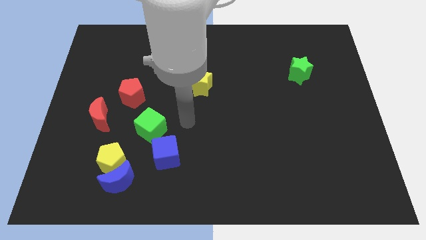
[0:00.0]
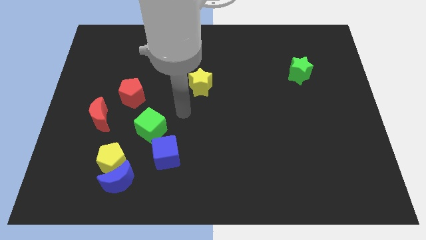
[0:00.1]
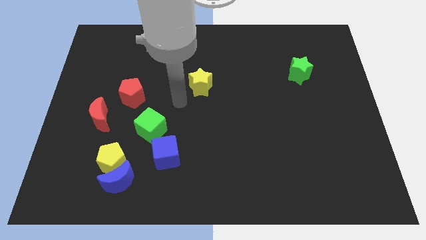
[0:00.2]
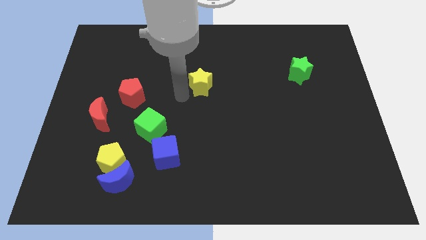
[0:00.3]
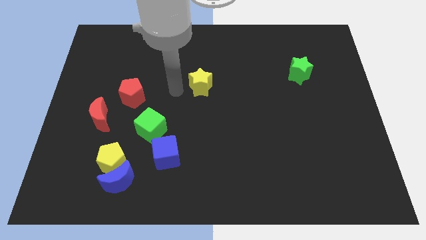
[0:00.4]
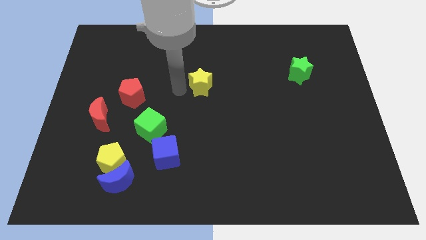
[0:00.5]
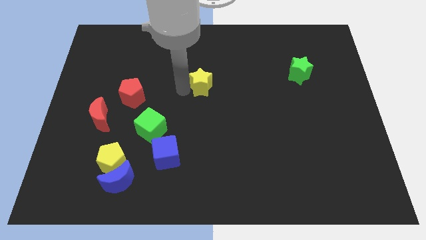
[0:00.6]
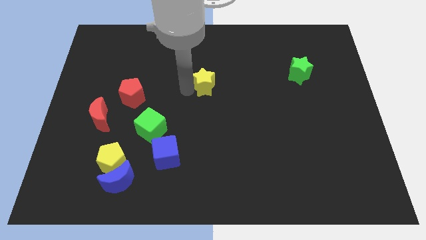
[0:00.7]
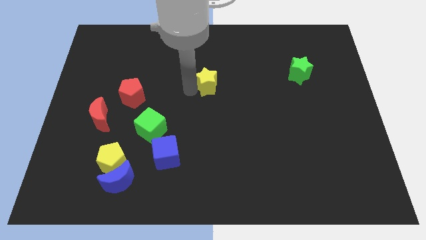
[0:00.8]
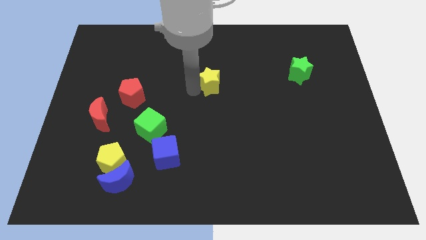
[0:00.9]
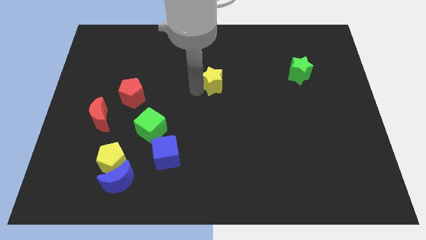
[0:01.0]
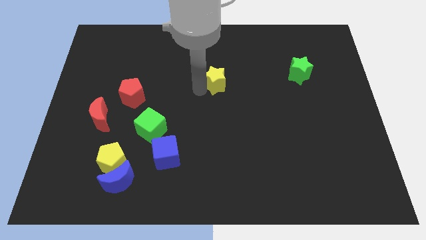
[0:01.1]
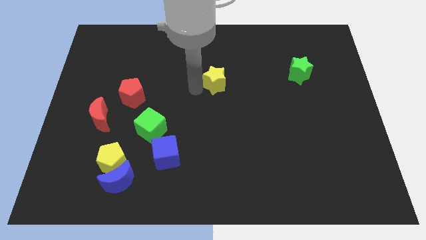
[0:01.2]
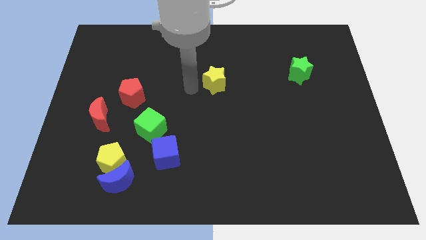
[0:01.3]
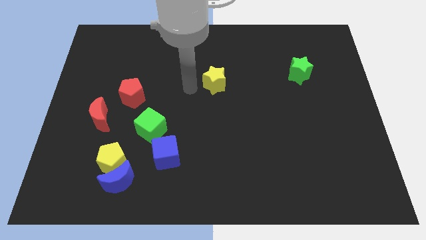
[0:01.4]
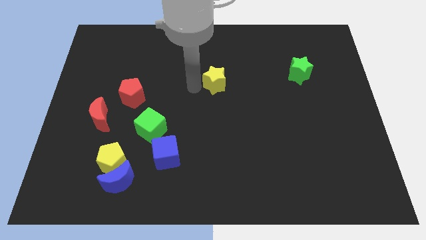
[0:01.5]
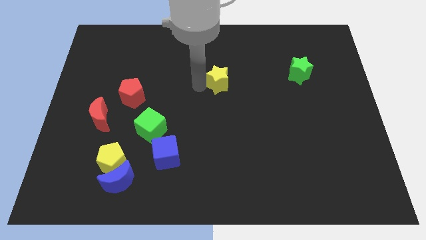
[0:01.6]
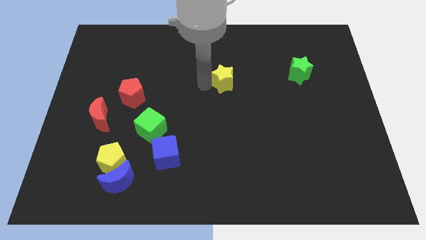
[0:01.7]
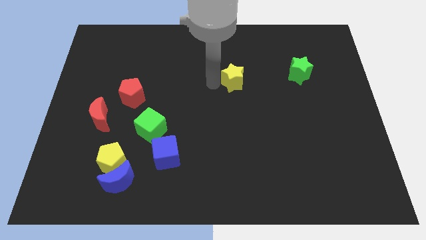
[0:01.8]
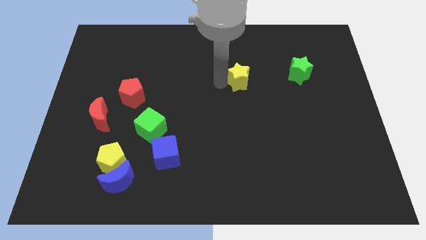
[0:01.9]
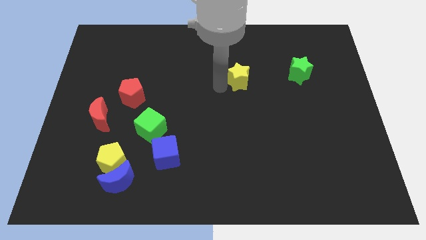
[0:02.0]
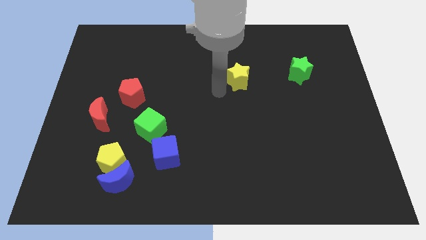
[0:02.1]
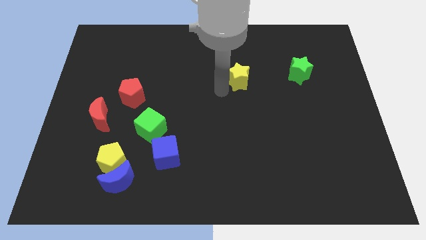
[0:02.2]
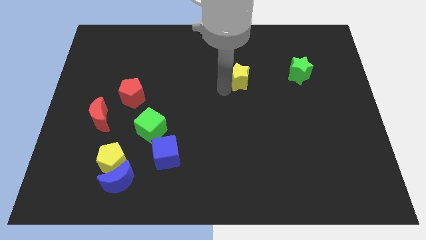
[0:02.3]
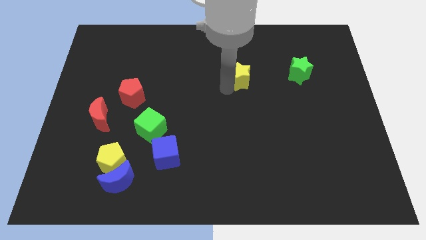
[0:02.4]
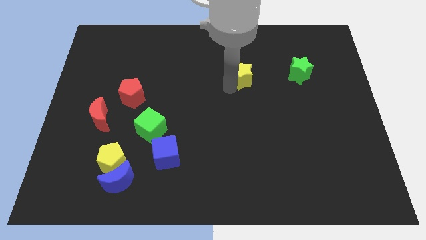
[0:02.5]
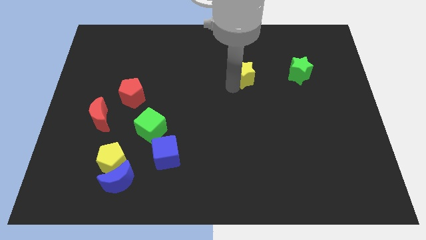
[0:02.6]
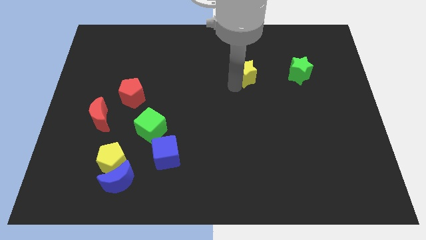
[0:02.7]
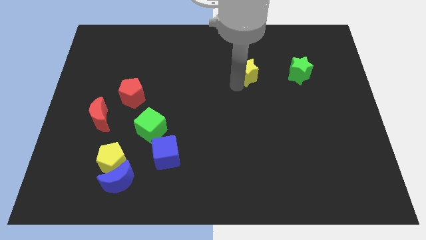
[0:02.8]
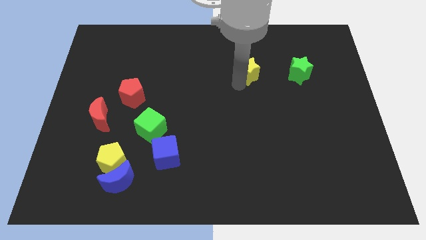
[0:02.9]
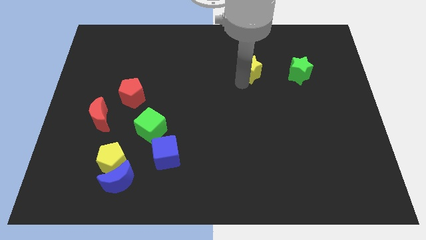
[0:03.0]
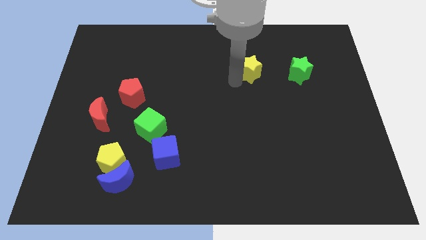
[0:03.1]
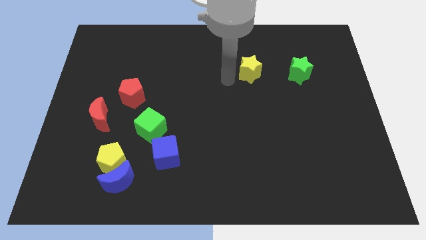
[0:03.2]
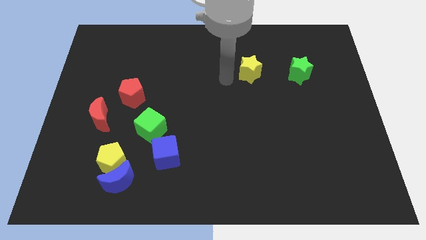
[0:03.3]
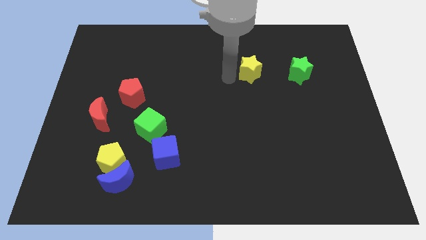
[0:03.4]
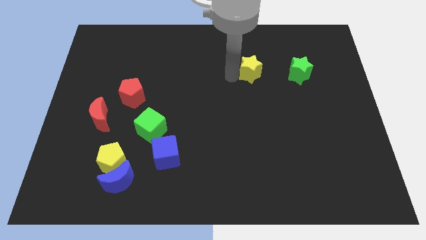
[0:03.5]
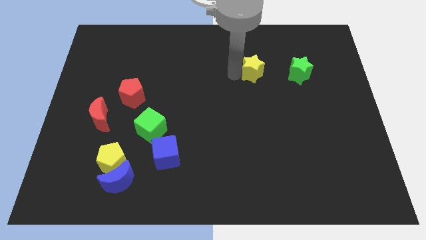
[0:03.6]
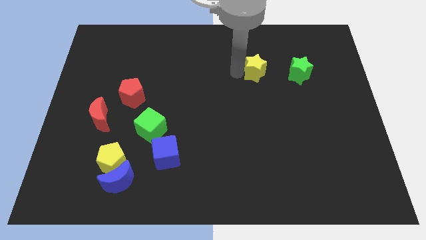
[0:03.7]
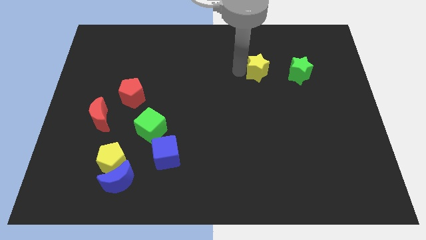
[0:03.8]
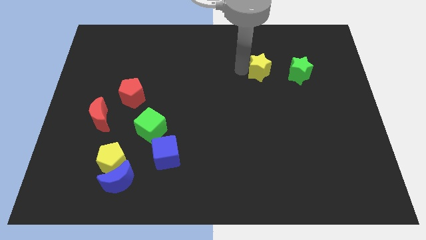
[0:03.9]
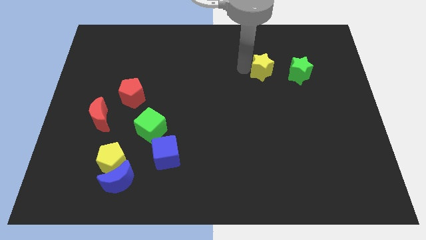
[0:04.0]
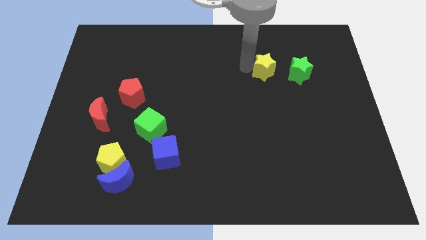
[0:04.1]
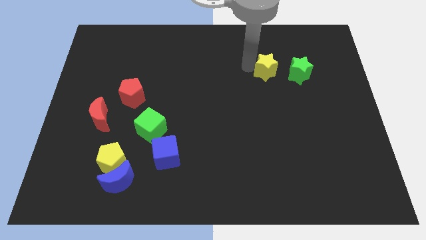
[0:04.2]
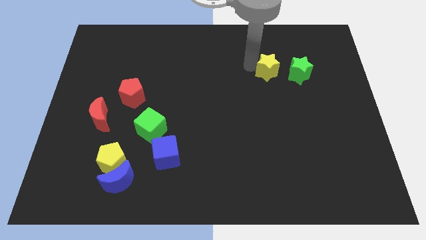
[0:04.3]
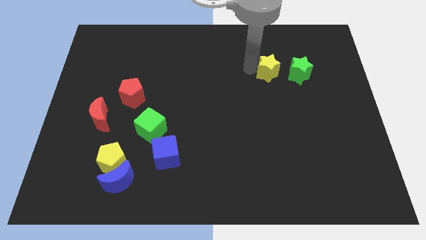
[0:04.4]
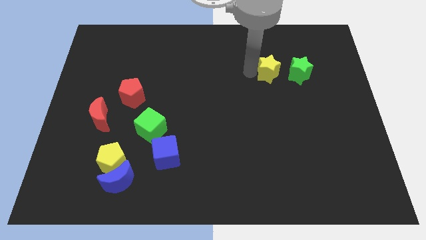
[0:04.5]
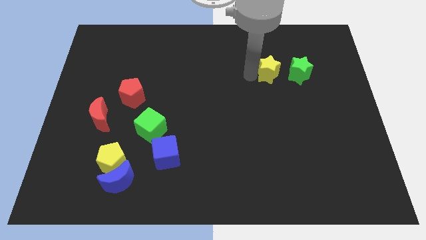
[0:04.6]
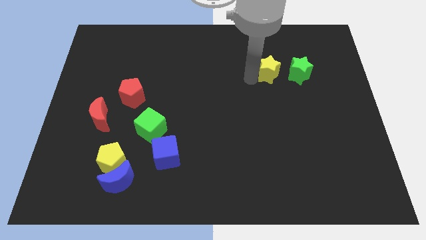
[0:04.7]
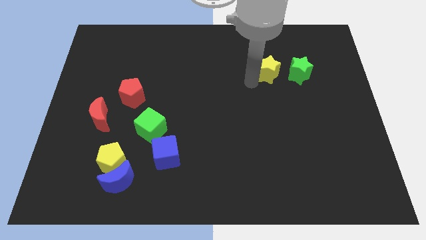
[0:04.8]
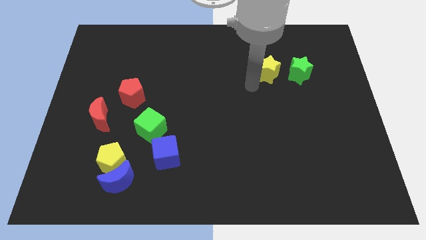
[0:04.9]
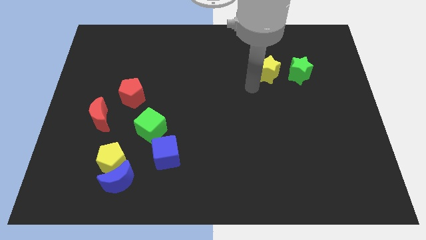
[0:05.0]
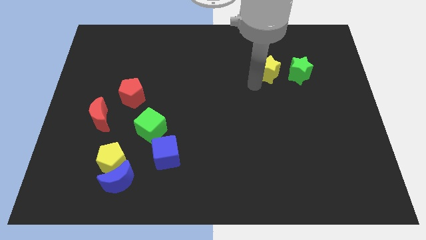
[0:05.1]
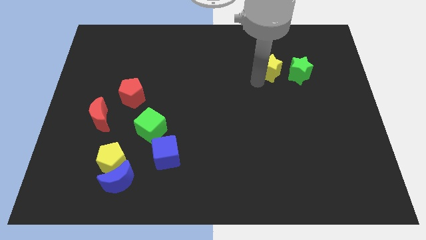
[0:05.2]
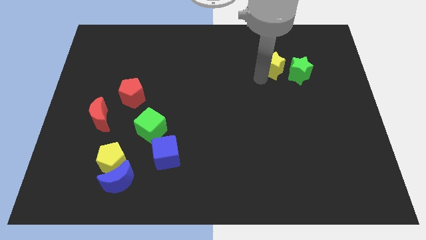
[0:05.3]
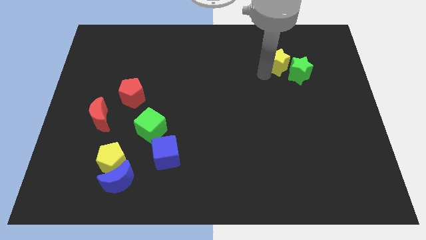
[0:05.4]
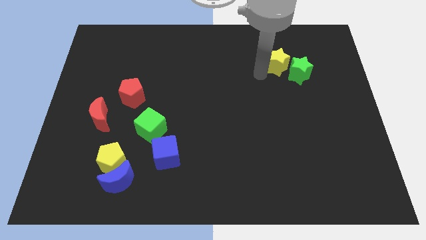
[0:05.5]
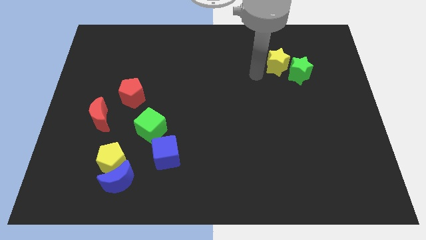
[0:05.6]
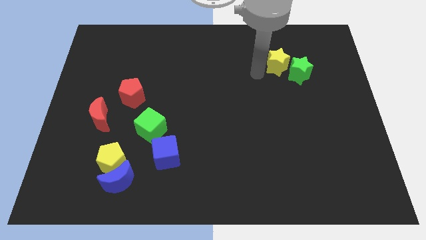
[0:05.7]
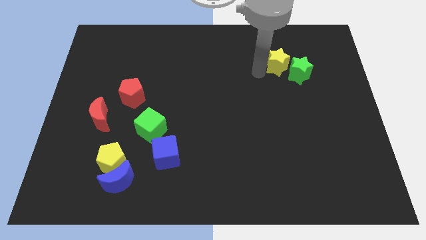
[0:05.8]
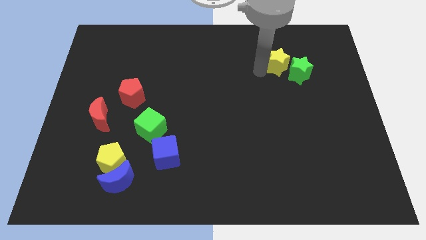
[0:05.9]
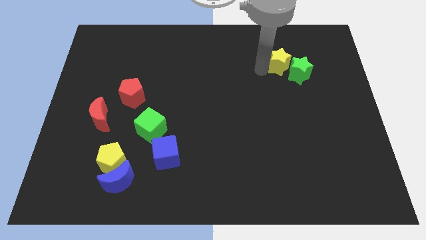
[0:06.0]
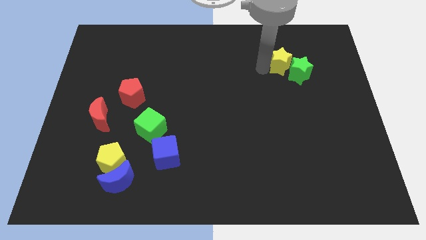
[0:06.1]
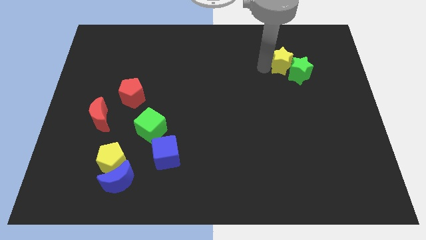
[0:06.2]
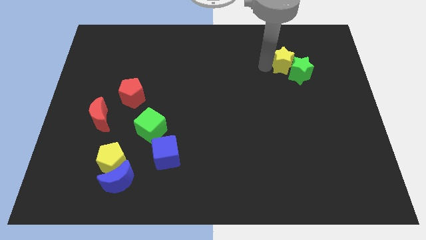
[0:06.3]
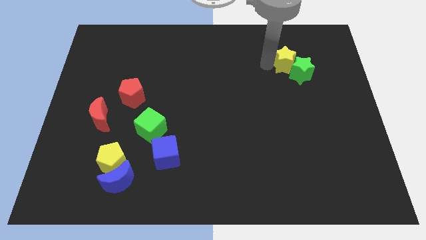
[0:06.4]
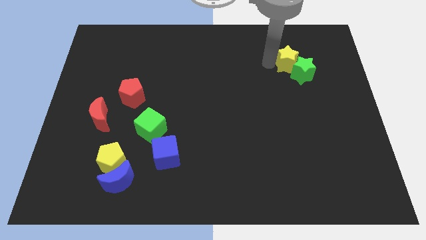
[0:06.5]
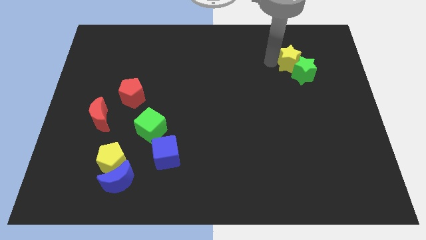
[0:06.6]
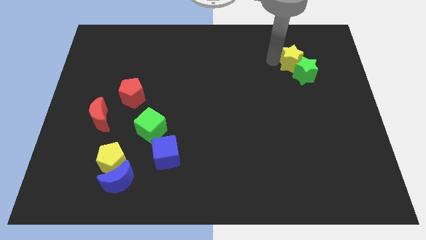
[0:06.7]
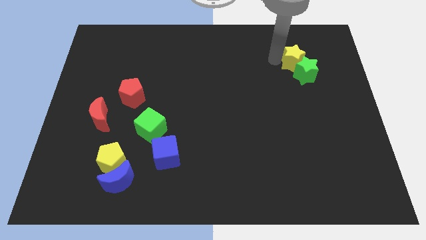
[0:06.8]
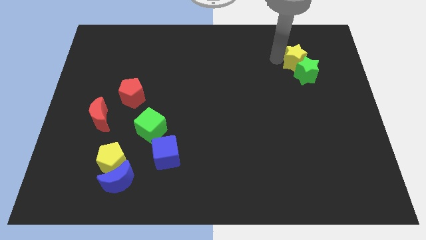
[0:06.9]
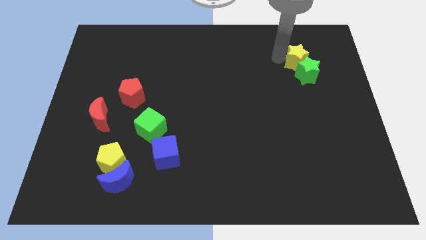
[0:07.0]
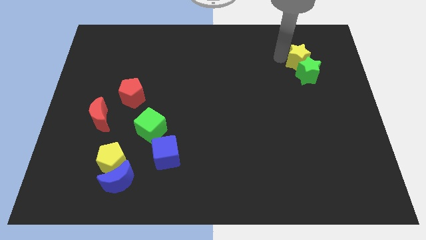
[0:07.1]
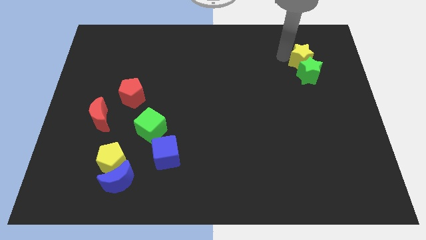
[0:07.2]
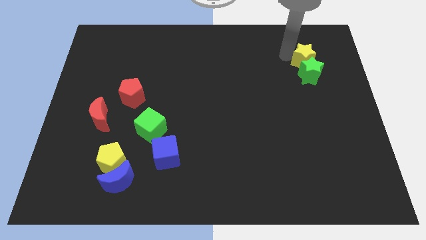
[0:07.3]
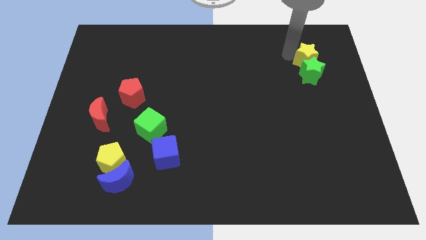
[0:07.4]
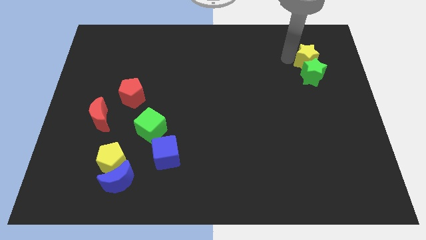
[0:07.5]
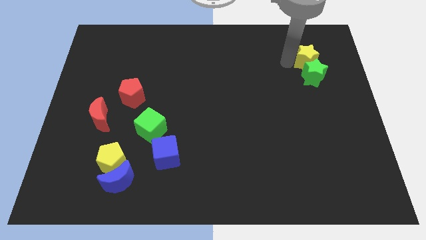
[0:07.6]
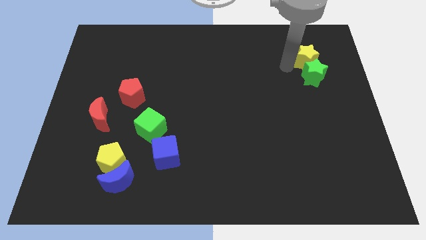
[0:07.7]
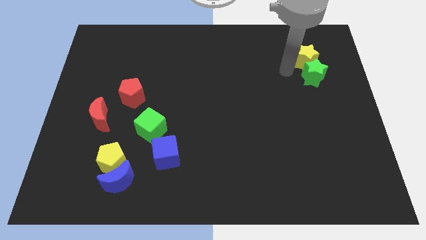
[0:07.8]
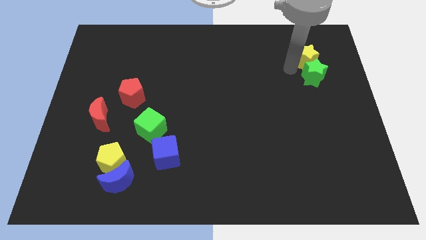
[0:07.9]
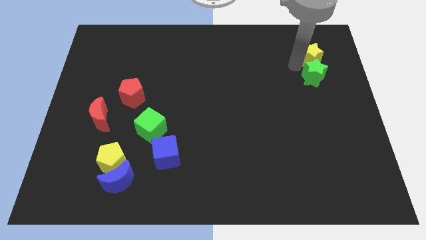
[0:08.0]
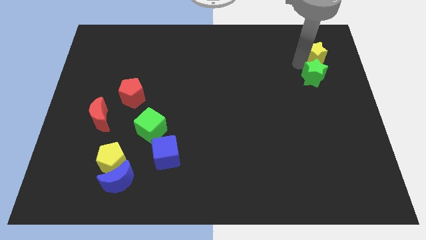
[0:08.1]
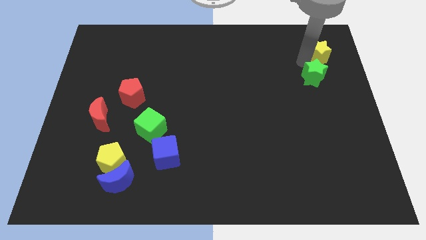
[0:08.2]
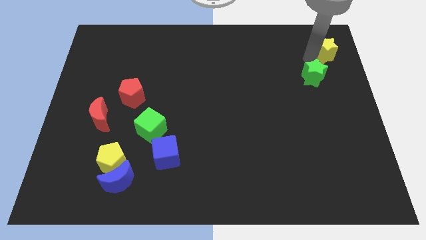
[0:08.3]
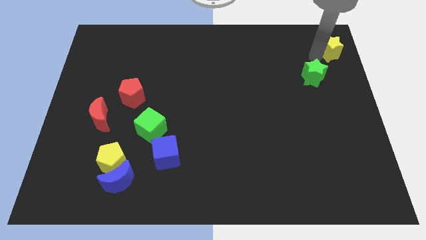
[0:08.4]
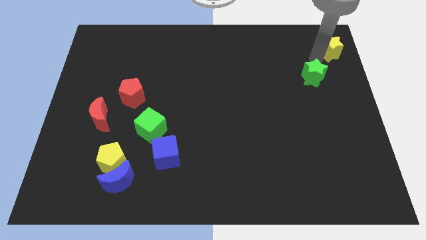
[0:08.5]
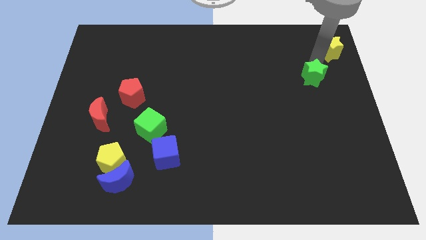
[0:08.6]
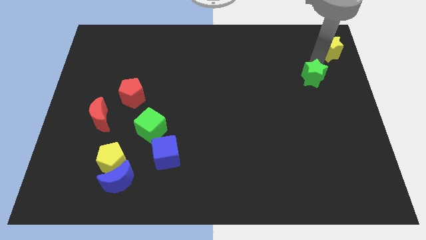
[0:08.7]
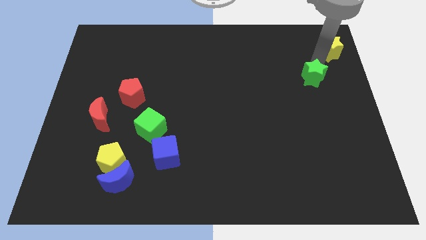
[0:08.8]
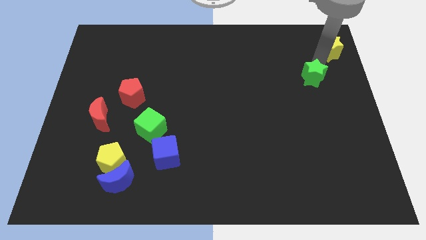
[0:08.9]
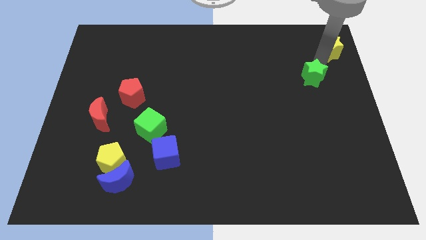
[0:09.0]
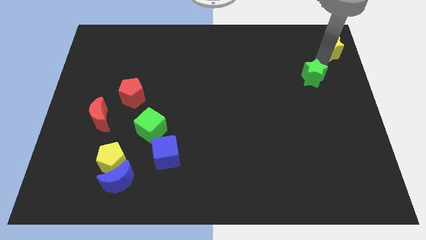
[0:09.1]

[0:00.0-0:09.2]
slide the yellow star to the top right of the board
